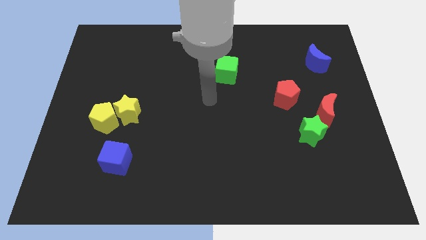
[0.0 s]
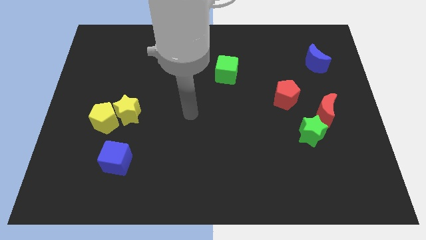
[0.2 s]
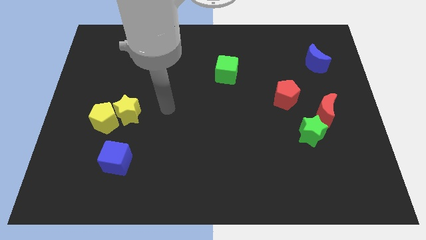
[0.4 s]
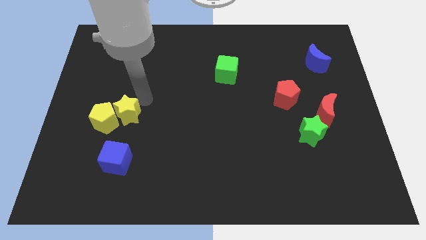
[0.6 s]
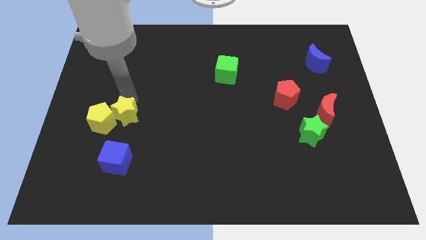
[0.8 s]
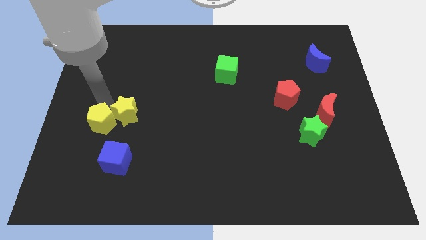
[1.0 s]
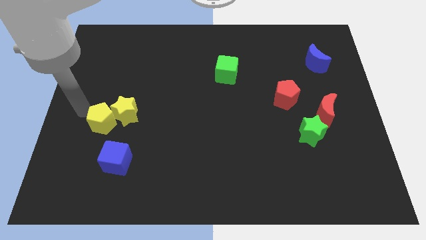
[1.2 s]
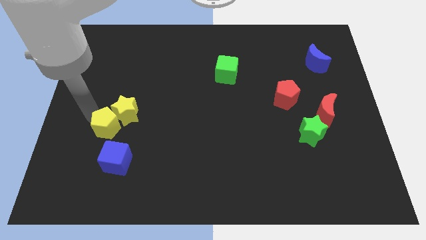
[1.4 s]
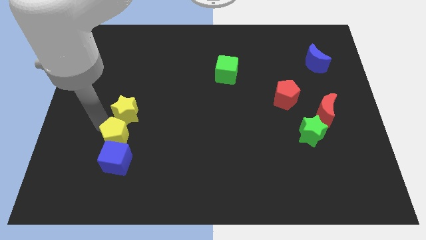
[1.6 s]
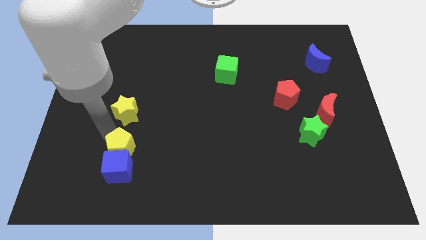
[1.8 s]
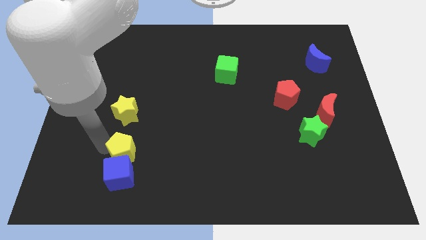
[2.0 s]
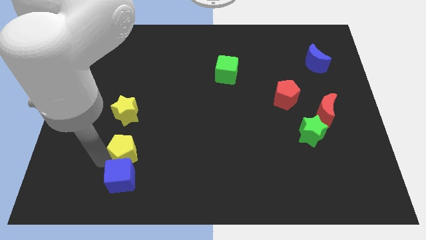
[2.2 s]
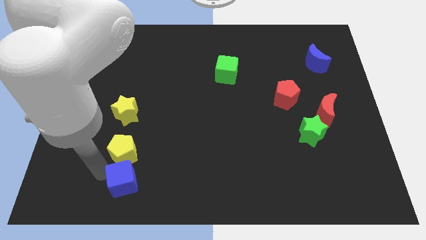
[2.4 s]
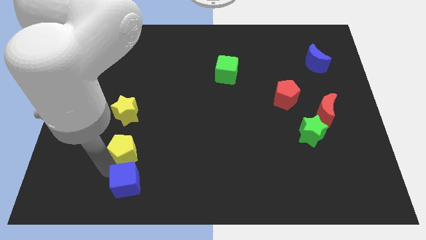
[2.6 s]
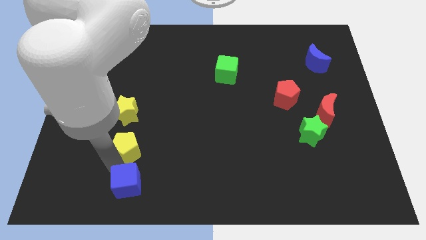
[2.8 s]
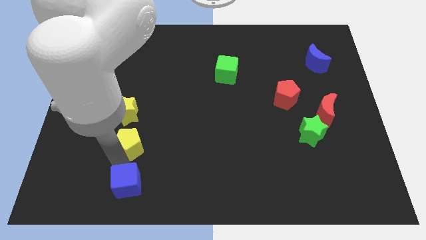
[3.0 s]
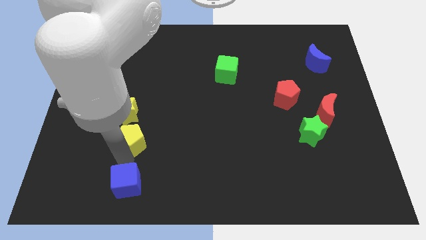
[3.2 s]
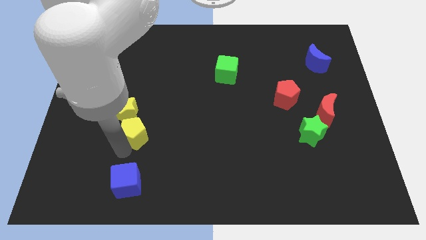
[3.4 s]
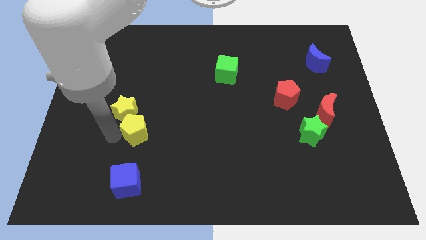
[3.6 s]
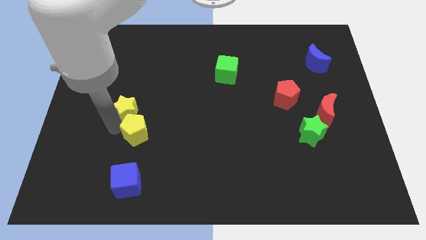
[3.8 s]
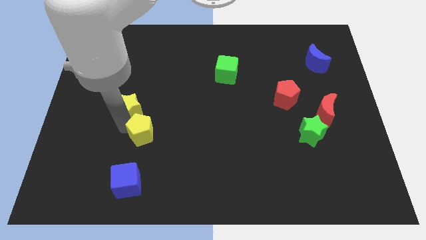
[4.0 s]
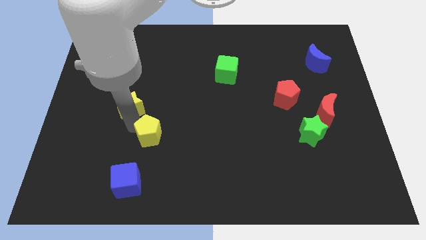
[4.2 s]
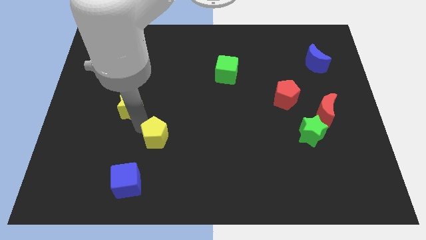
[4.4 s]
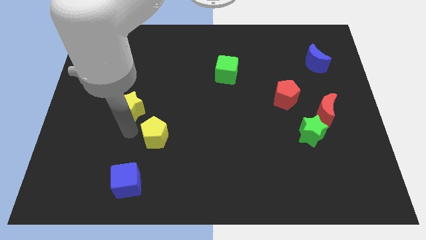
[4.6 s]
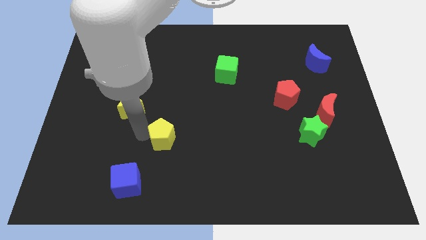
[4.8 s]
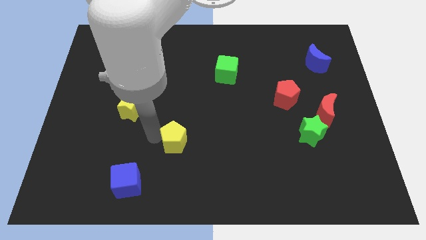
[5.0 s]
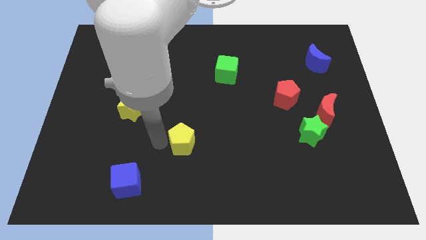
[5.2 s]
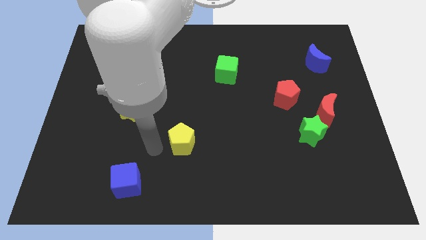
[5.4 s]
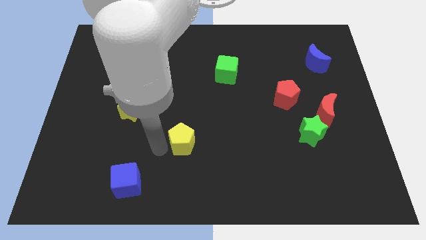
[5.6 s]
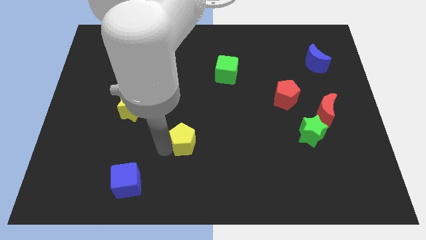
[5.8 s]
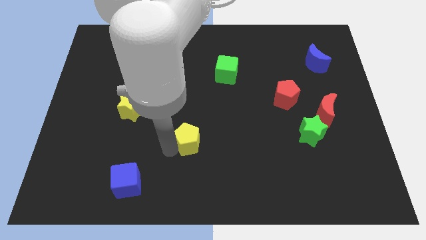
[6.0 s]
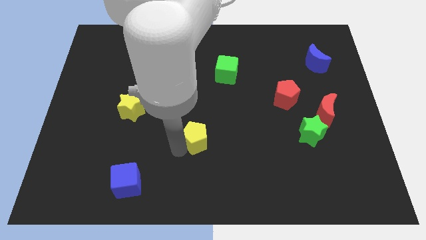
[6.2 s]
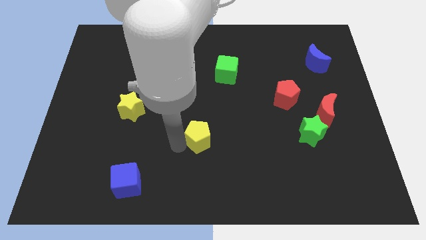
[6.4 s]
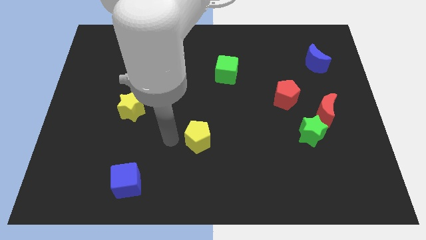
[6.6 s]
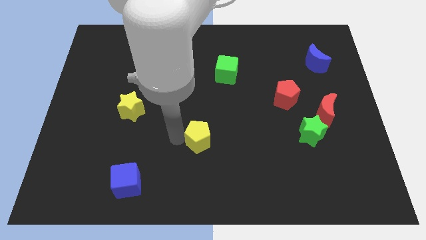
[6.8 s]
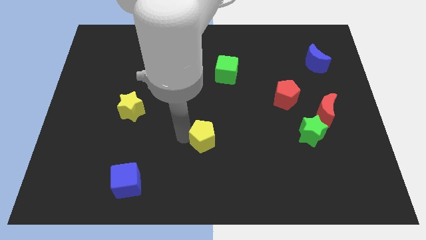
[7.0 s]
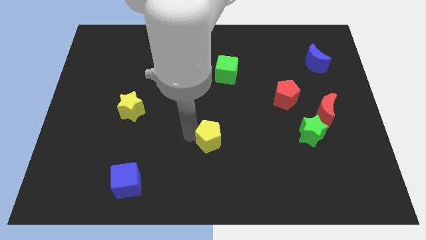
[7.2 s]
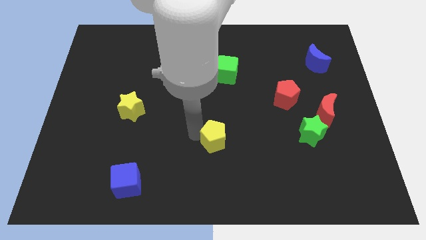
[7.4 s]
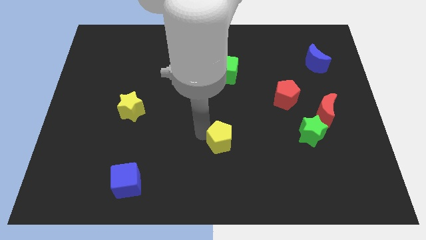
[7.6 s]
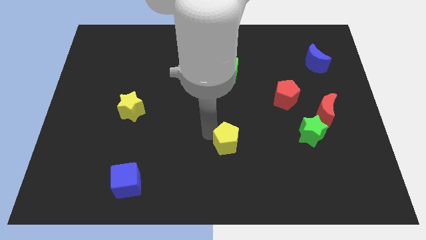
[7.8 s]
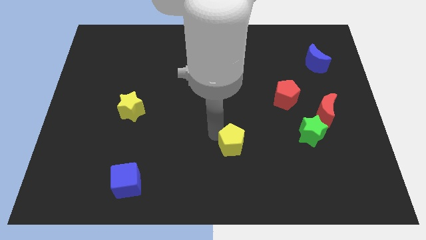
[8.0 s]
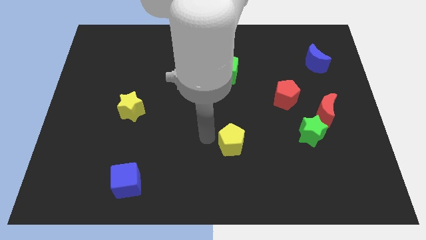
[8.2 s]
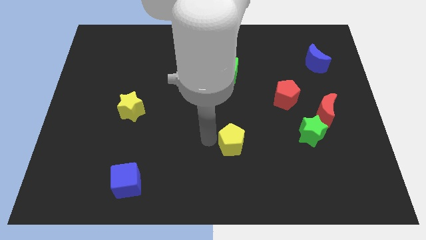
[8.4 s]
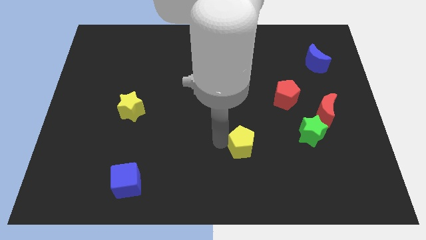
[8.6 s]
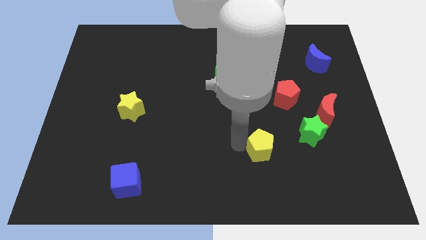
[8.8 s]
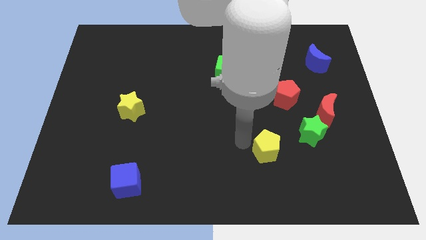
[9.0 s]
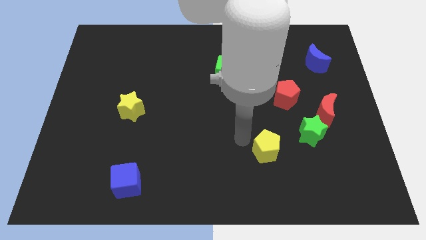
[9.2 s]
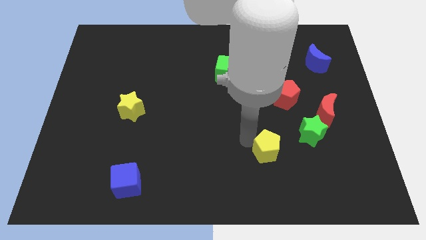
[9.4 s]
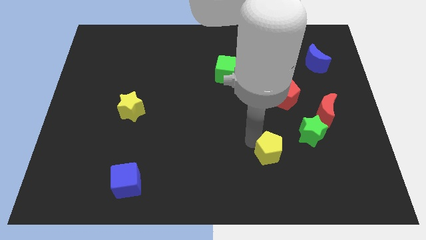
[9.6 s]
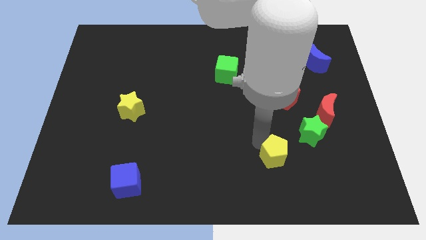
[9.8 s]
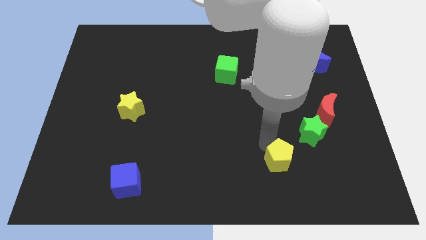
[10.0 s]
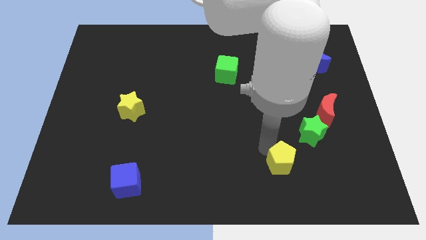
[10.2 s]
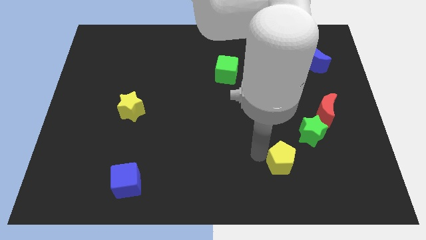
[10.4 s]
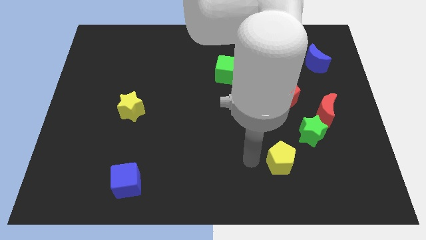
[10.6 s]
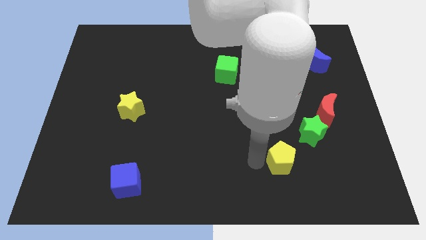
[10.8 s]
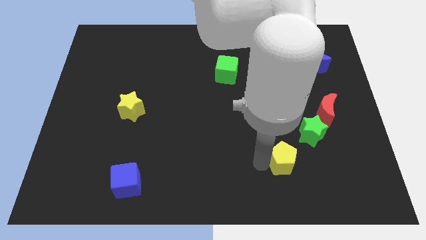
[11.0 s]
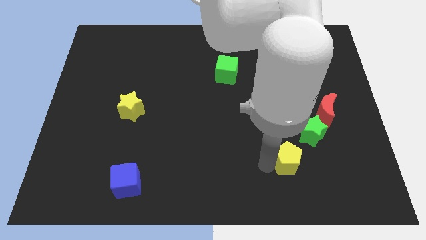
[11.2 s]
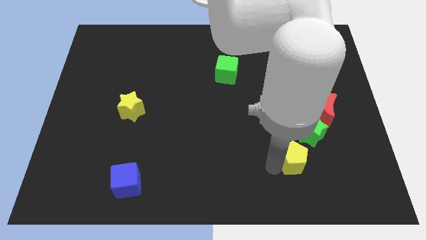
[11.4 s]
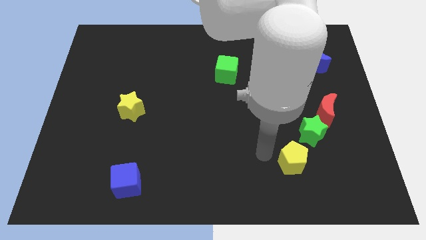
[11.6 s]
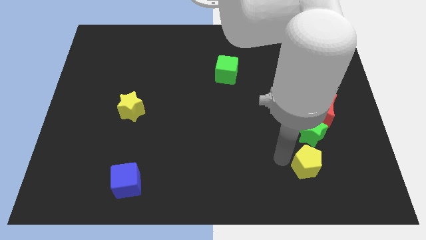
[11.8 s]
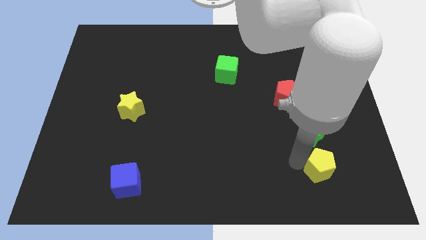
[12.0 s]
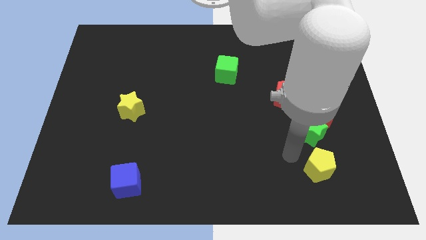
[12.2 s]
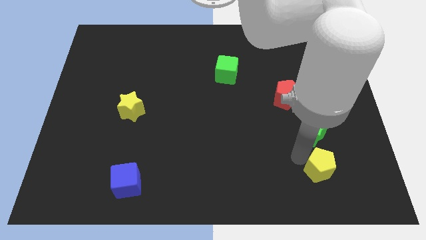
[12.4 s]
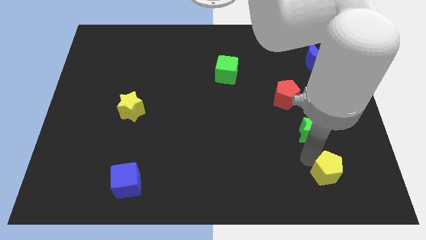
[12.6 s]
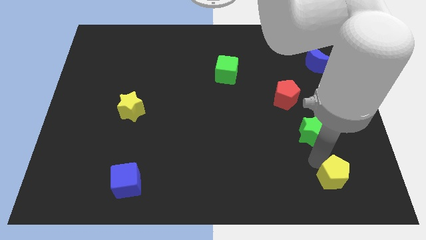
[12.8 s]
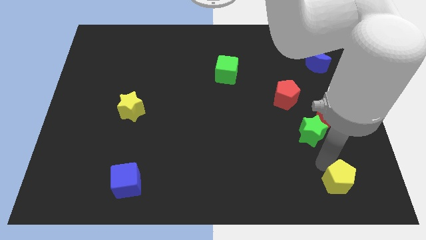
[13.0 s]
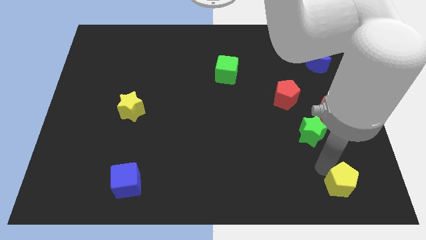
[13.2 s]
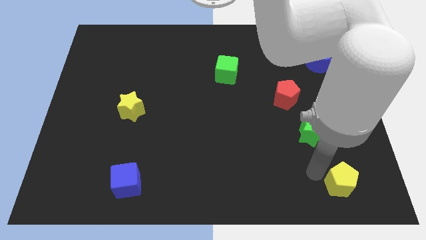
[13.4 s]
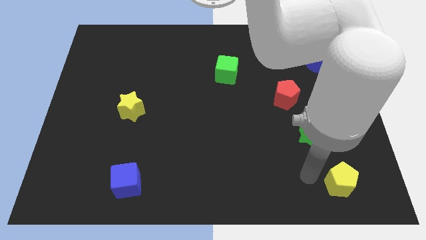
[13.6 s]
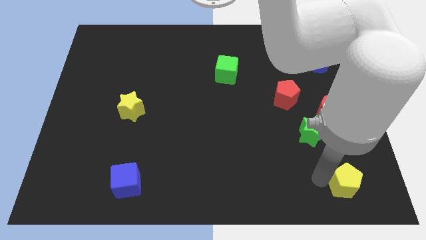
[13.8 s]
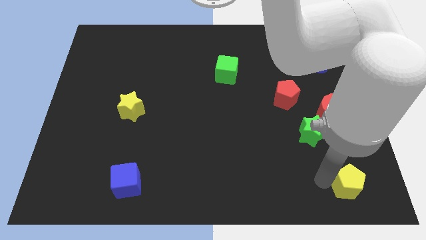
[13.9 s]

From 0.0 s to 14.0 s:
push the yellow pentagon to the bottom right corner
